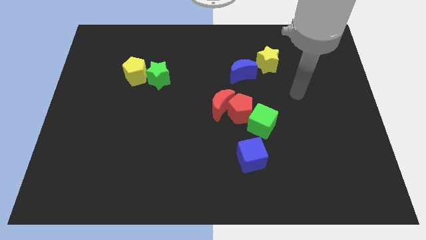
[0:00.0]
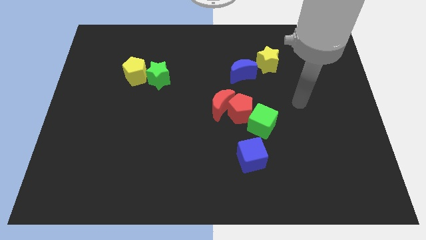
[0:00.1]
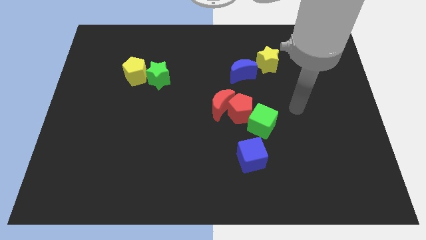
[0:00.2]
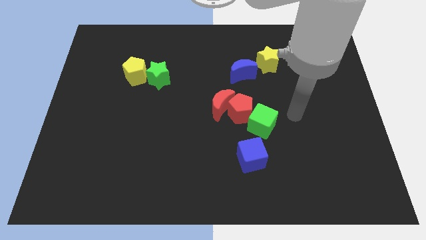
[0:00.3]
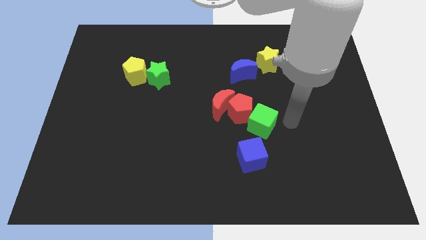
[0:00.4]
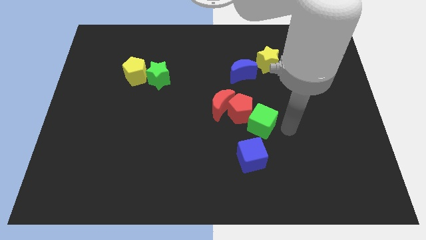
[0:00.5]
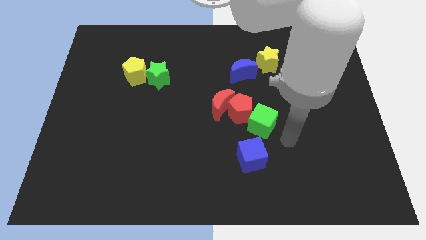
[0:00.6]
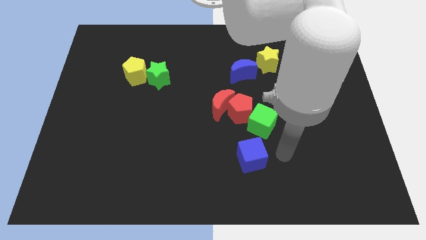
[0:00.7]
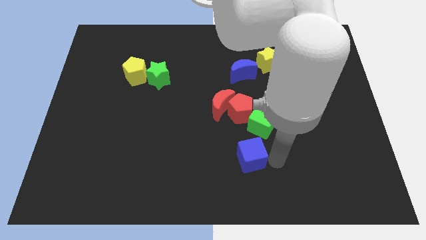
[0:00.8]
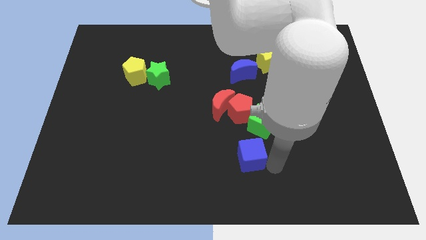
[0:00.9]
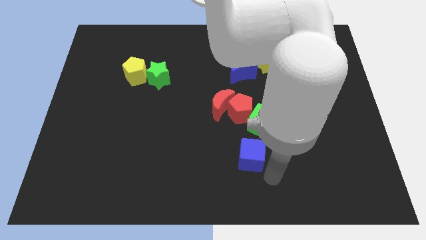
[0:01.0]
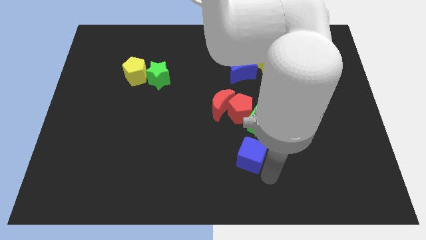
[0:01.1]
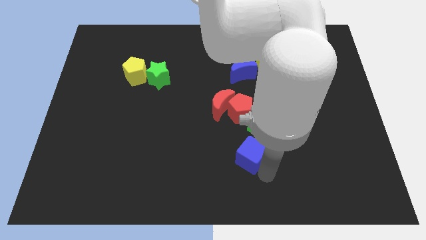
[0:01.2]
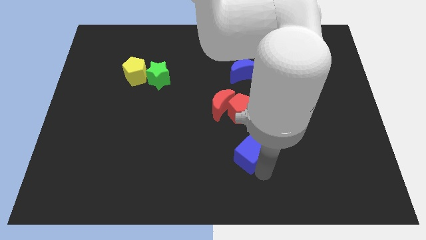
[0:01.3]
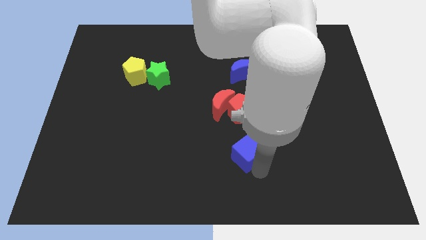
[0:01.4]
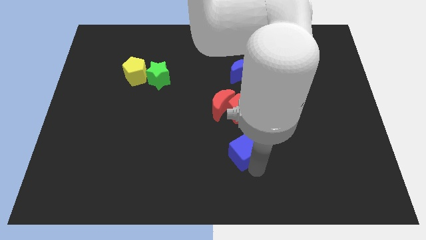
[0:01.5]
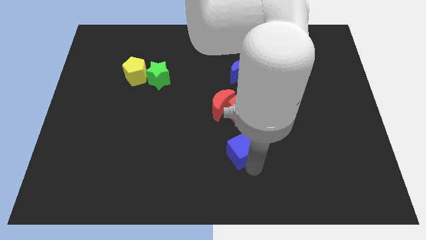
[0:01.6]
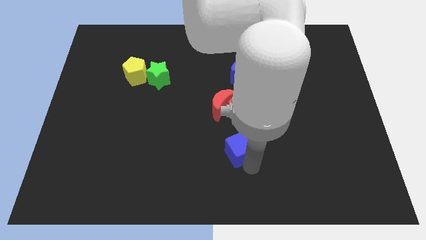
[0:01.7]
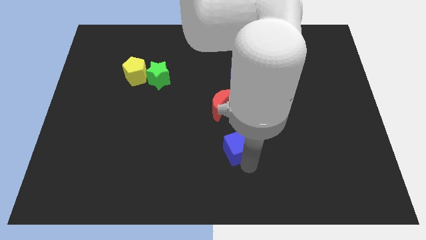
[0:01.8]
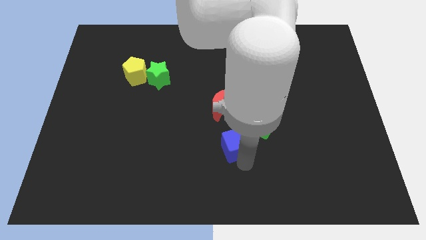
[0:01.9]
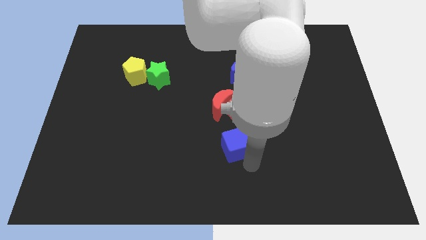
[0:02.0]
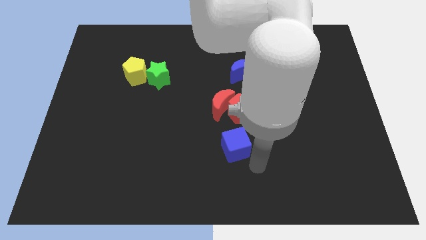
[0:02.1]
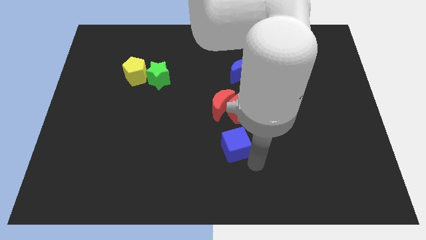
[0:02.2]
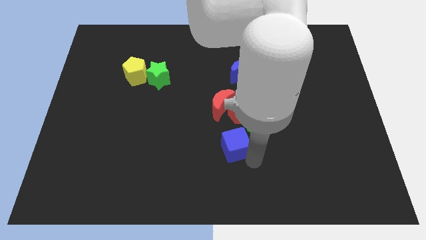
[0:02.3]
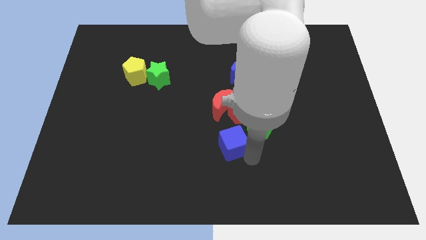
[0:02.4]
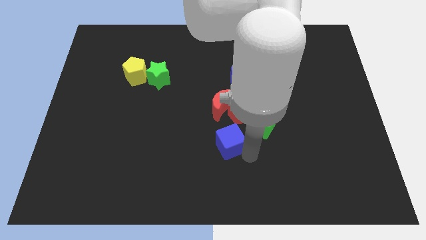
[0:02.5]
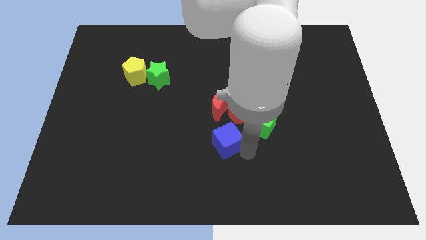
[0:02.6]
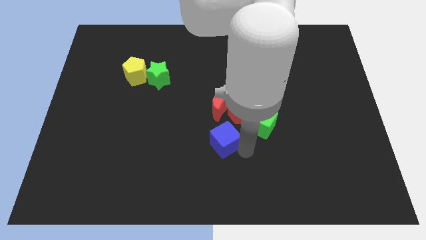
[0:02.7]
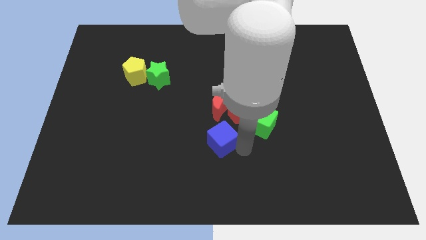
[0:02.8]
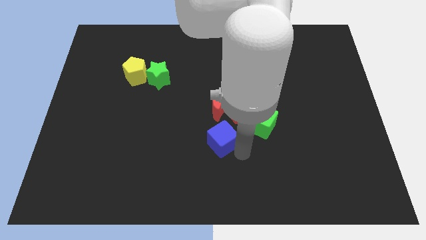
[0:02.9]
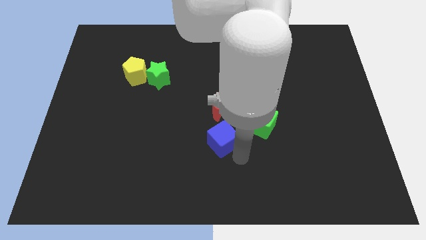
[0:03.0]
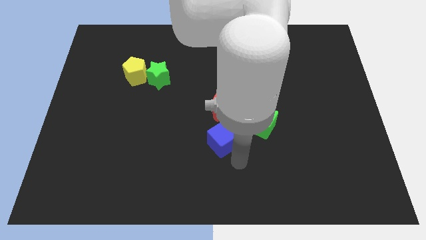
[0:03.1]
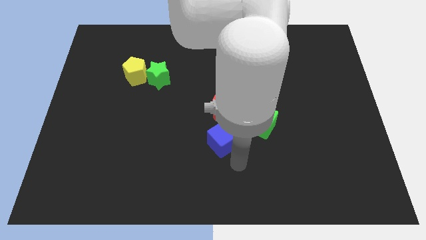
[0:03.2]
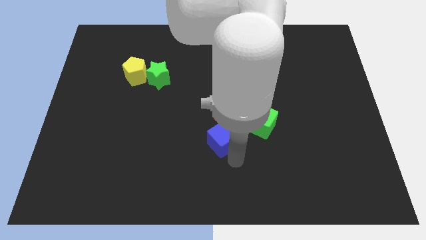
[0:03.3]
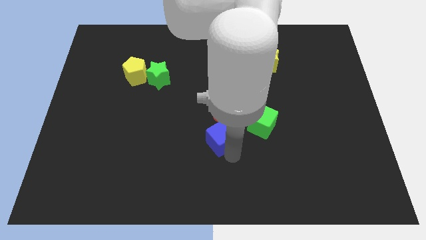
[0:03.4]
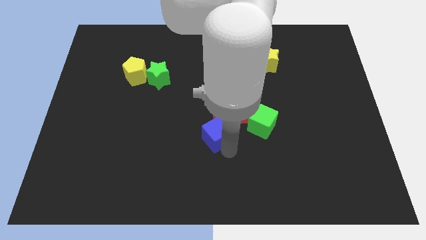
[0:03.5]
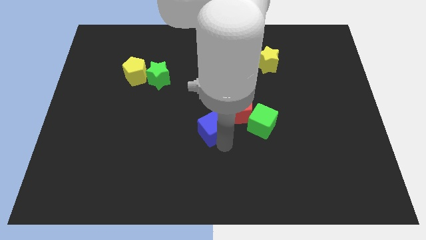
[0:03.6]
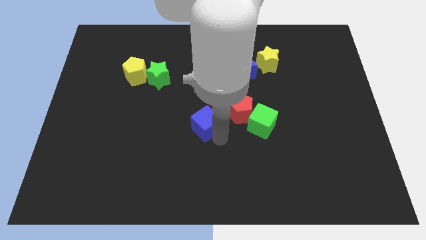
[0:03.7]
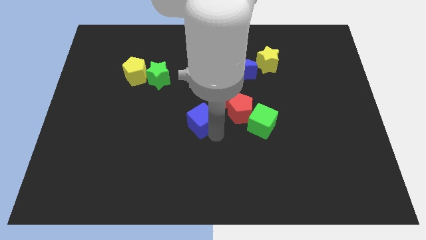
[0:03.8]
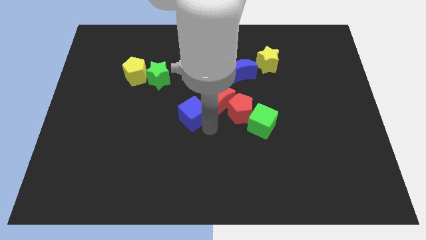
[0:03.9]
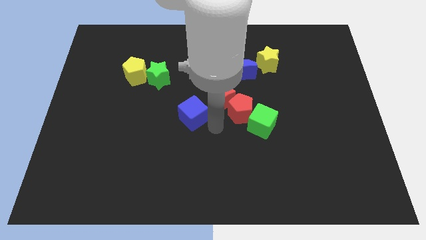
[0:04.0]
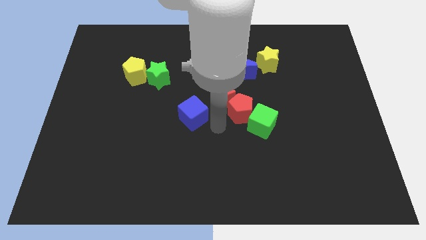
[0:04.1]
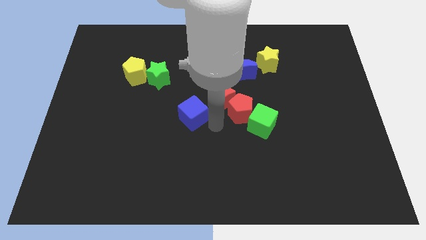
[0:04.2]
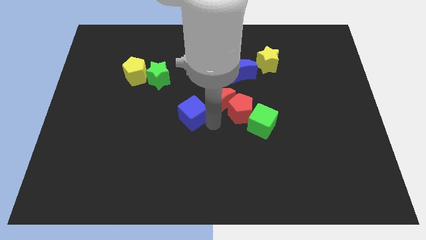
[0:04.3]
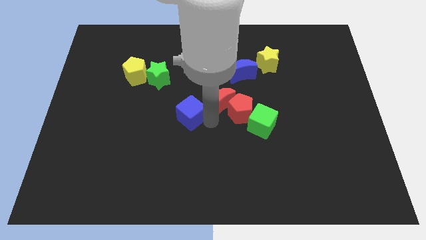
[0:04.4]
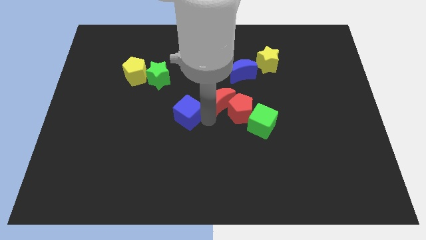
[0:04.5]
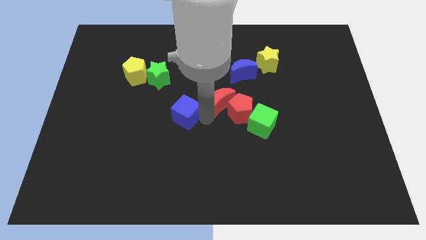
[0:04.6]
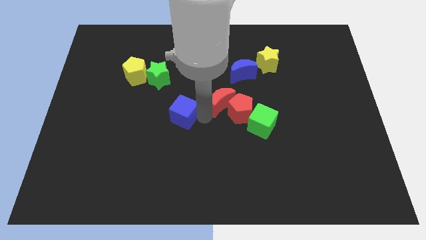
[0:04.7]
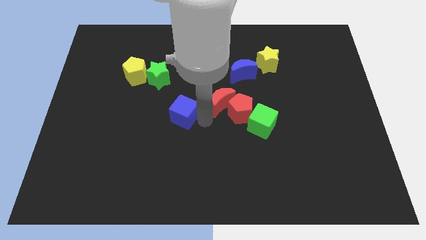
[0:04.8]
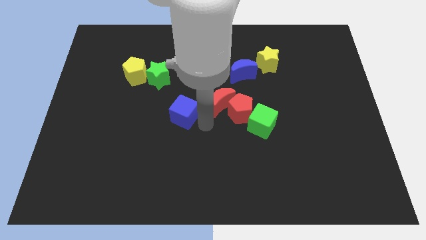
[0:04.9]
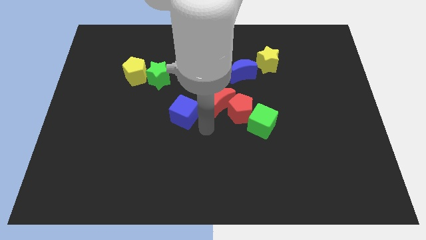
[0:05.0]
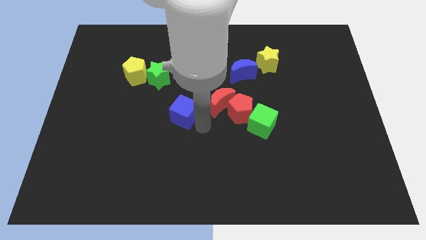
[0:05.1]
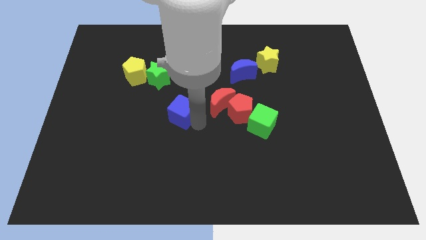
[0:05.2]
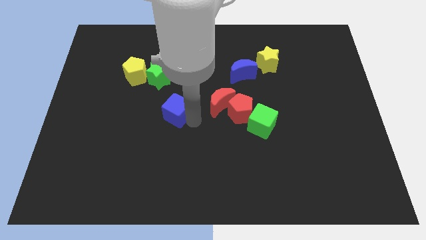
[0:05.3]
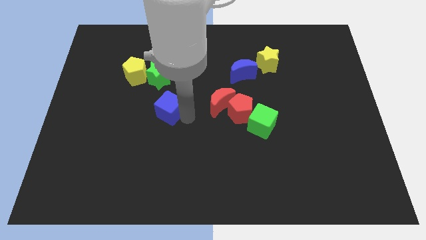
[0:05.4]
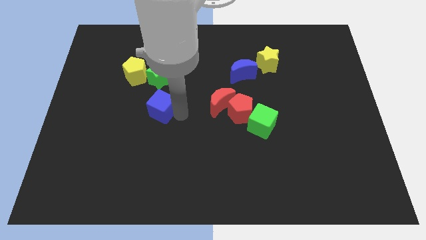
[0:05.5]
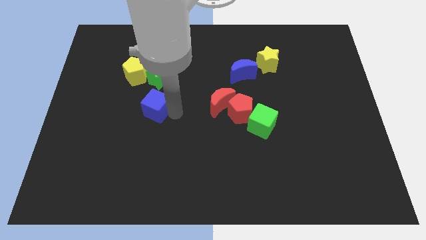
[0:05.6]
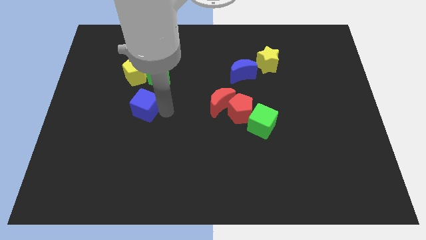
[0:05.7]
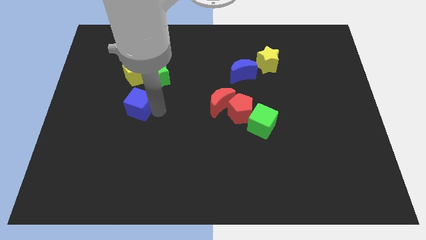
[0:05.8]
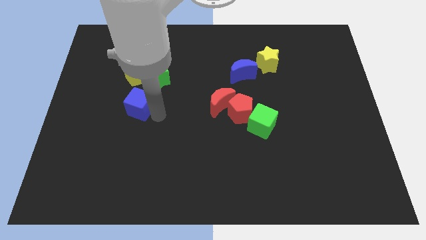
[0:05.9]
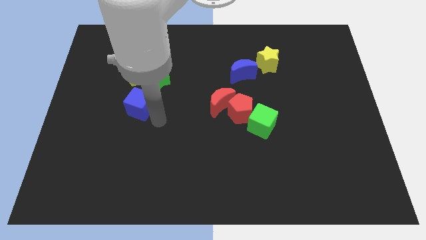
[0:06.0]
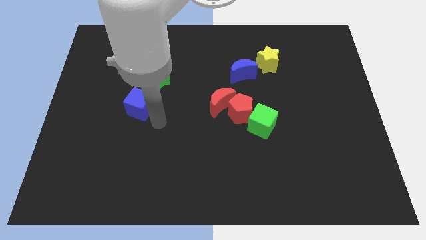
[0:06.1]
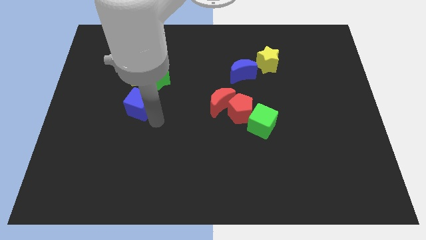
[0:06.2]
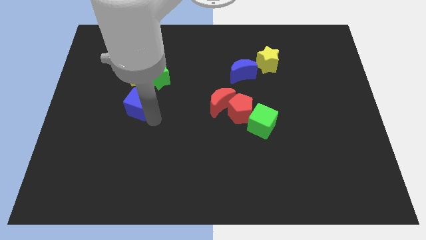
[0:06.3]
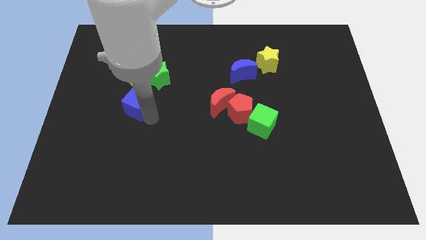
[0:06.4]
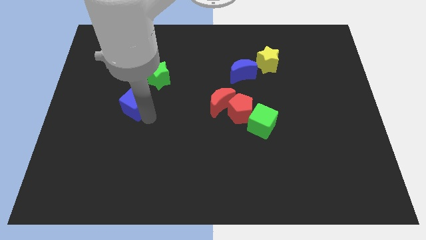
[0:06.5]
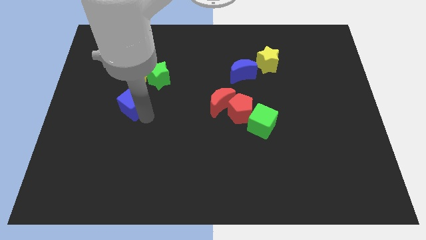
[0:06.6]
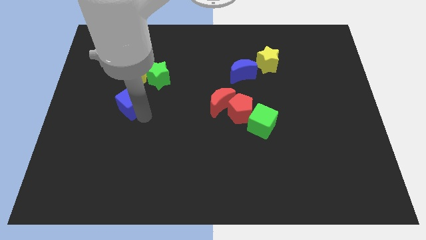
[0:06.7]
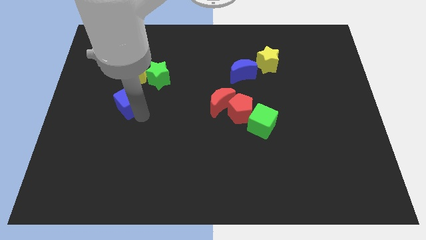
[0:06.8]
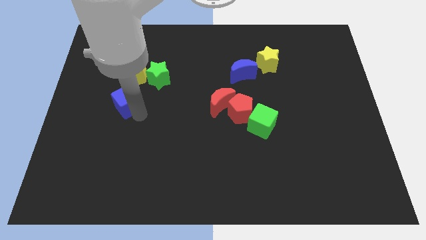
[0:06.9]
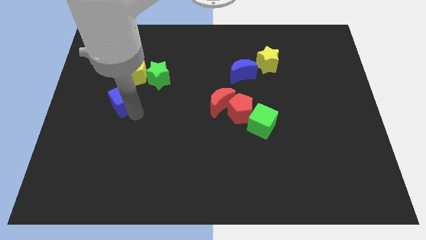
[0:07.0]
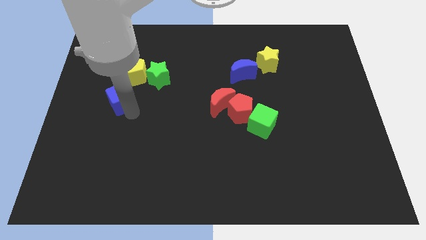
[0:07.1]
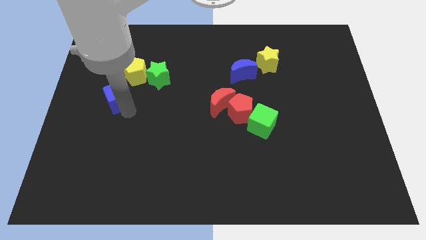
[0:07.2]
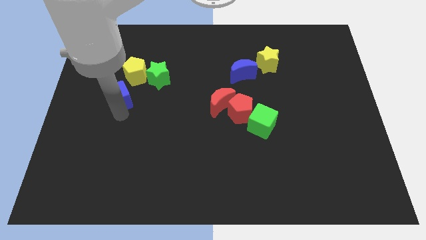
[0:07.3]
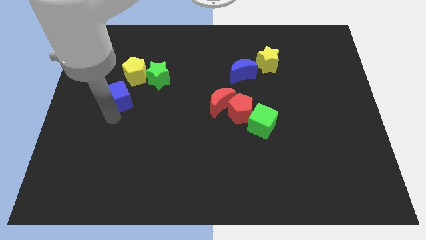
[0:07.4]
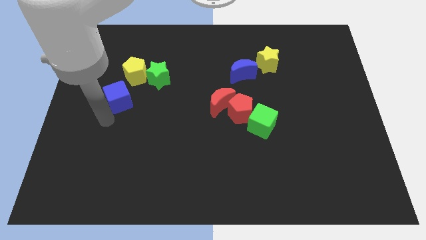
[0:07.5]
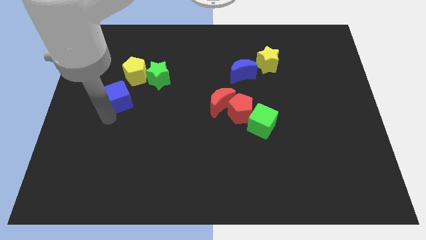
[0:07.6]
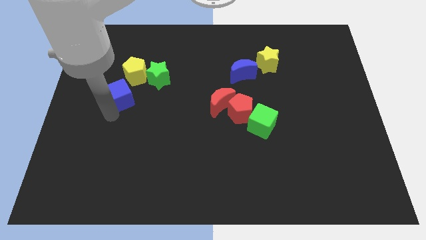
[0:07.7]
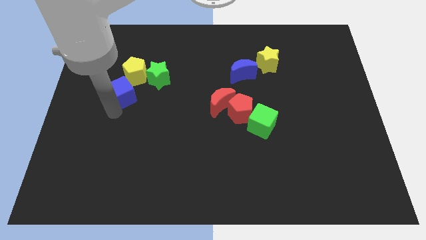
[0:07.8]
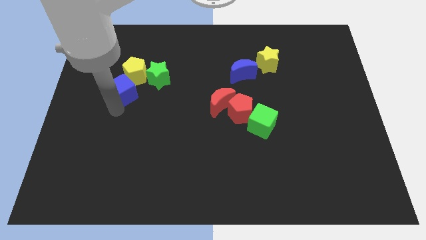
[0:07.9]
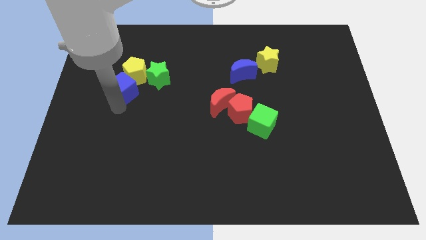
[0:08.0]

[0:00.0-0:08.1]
push the blue cube to the yellow pentagon
